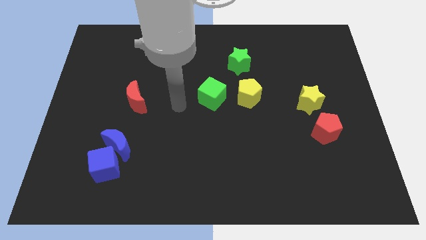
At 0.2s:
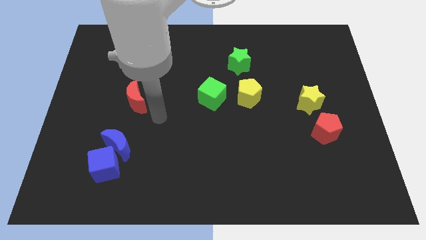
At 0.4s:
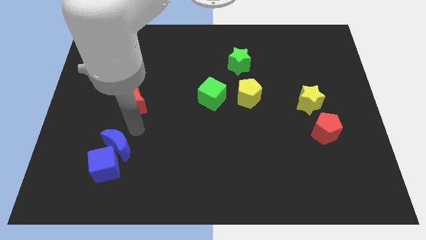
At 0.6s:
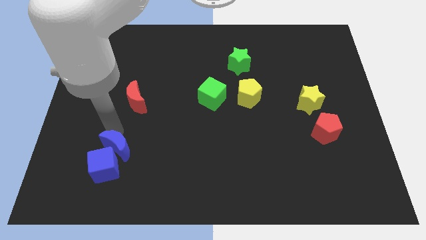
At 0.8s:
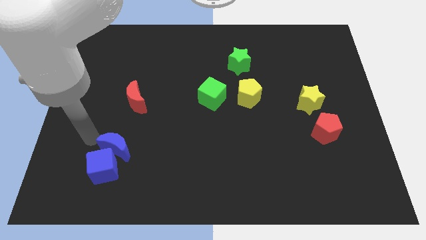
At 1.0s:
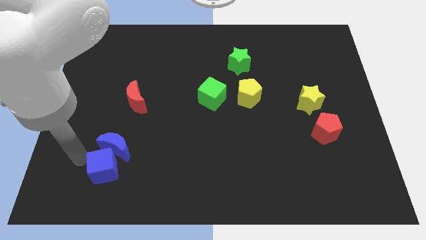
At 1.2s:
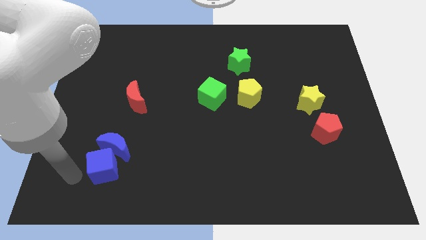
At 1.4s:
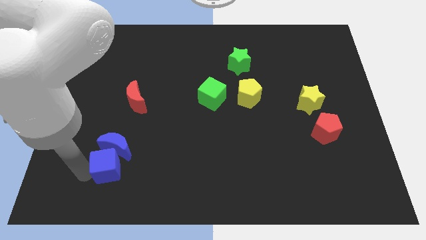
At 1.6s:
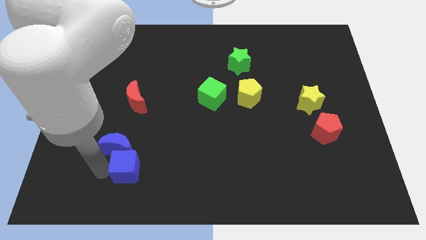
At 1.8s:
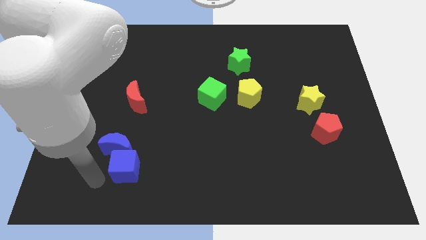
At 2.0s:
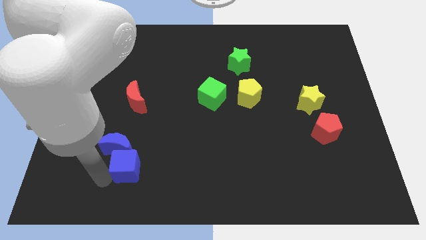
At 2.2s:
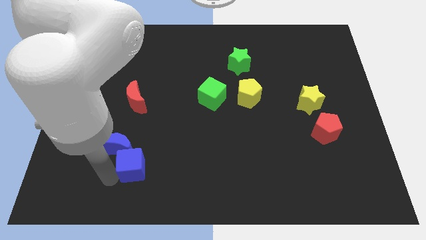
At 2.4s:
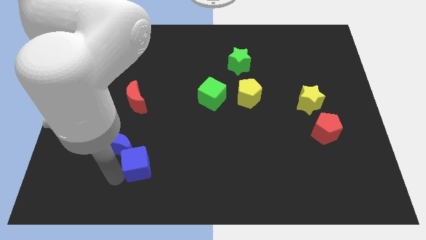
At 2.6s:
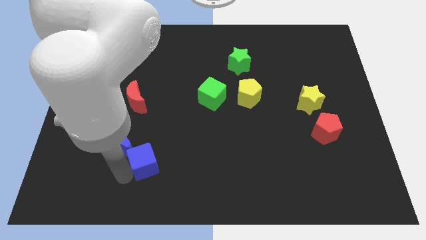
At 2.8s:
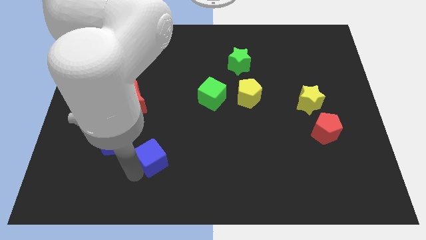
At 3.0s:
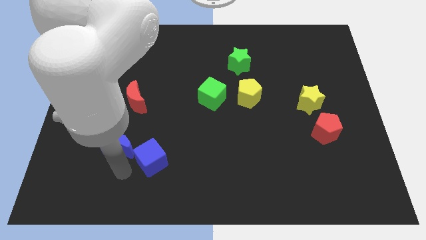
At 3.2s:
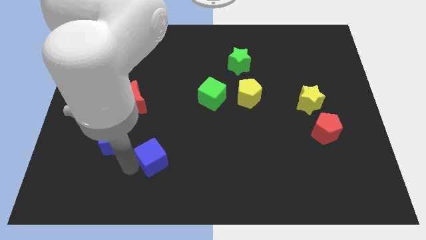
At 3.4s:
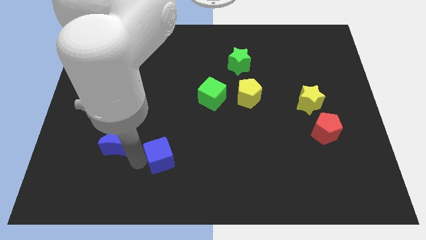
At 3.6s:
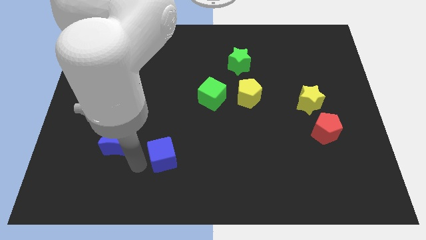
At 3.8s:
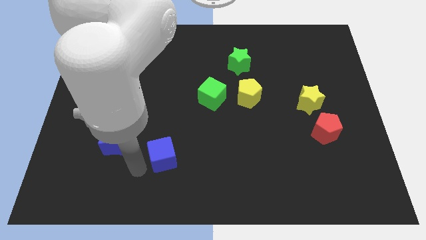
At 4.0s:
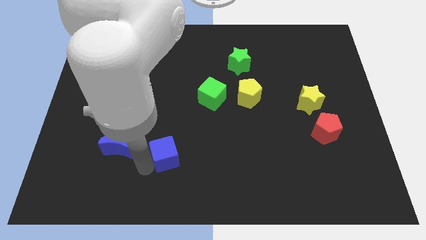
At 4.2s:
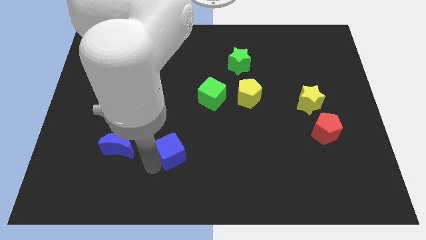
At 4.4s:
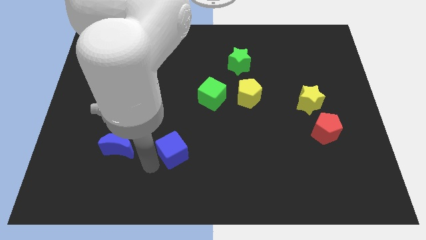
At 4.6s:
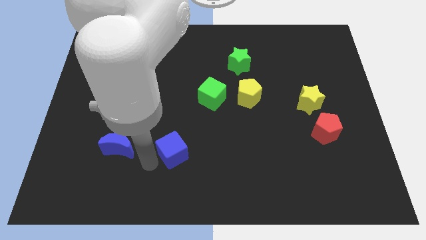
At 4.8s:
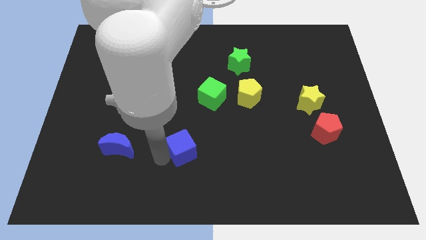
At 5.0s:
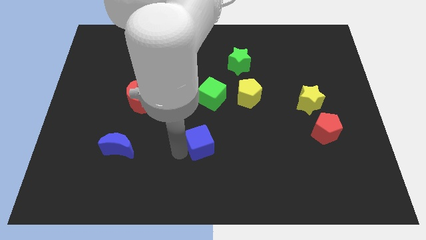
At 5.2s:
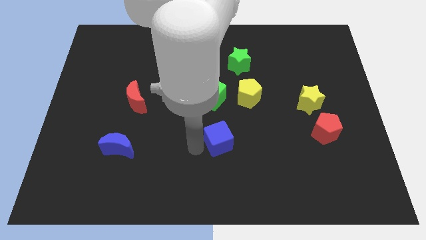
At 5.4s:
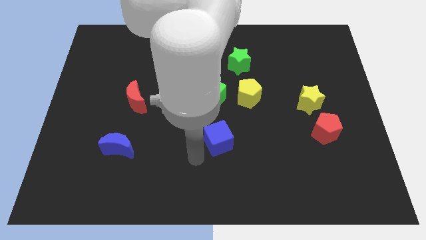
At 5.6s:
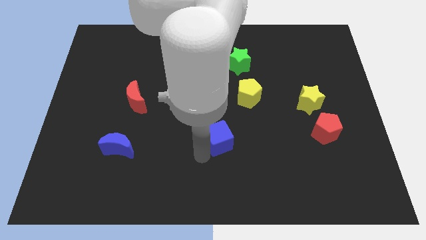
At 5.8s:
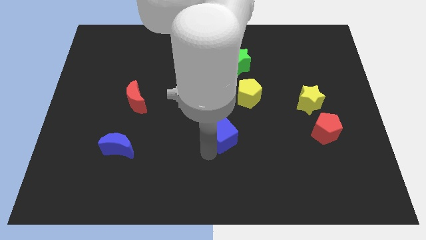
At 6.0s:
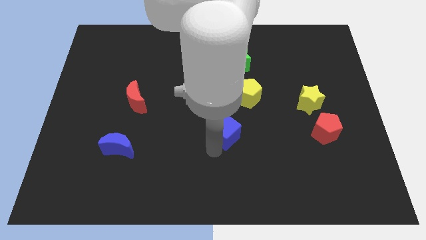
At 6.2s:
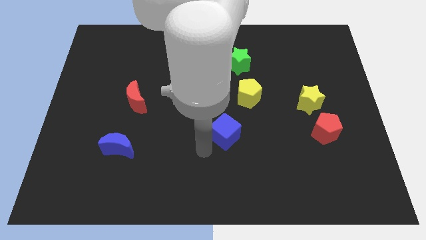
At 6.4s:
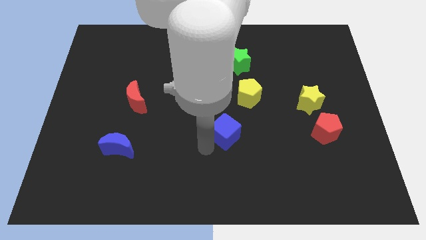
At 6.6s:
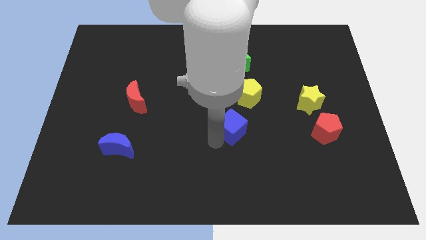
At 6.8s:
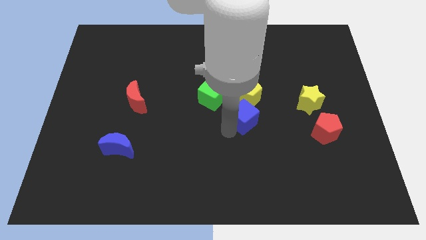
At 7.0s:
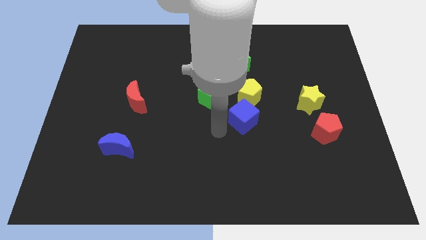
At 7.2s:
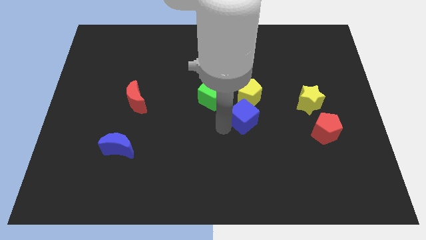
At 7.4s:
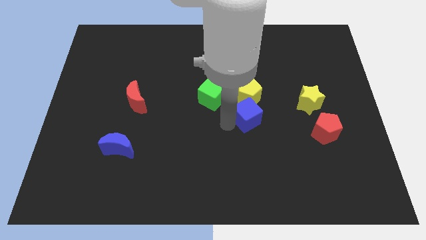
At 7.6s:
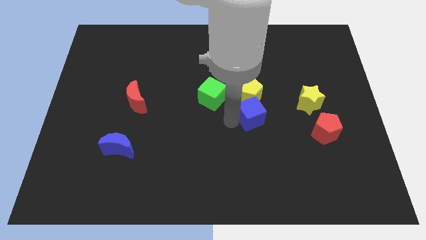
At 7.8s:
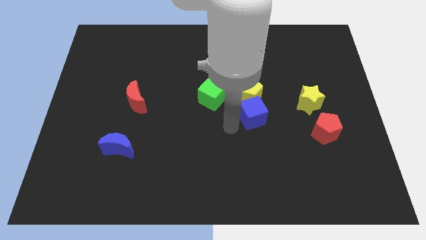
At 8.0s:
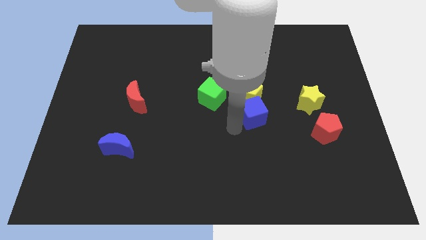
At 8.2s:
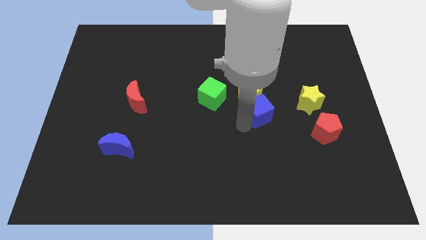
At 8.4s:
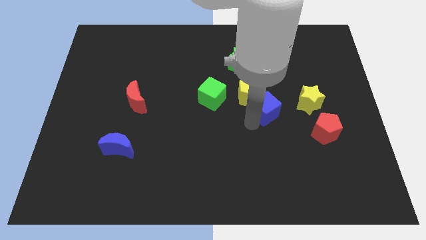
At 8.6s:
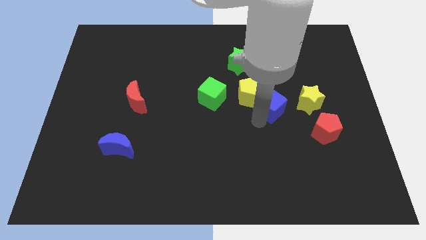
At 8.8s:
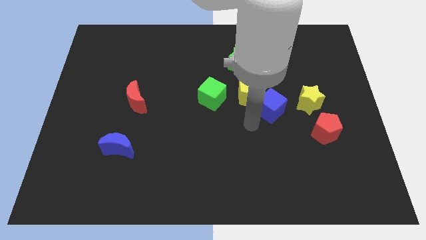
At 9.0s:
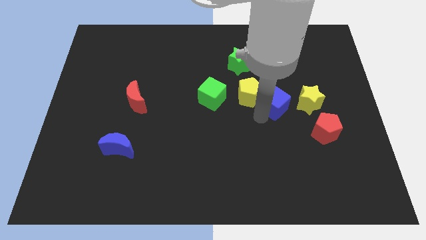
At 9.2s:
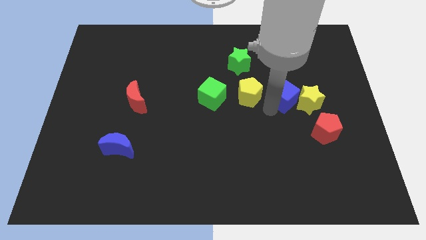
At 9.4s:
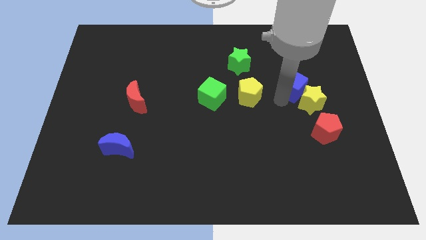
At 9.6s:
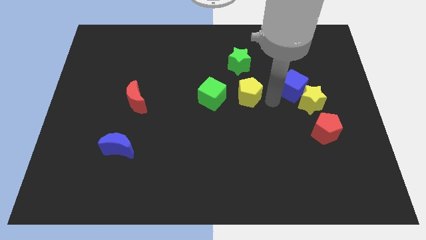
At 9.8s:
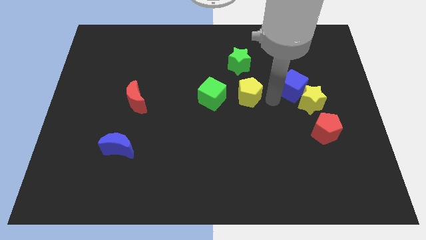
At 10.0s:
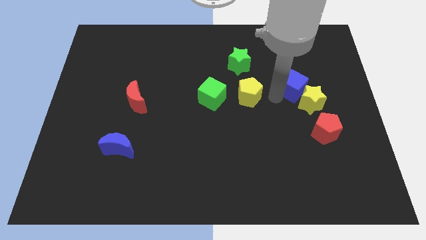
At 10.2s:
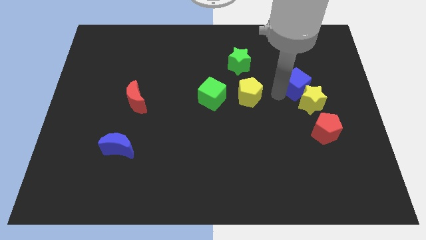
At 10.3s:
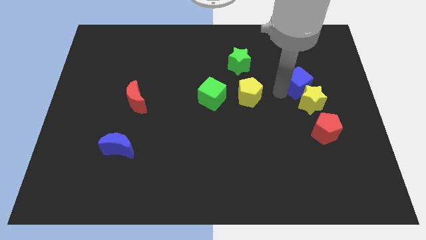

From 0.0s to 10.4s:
move the blue cube above the red pentagon

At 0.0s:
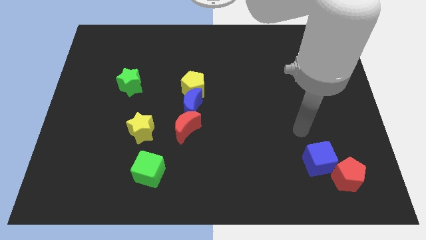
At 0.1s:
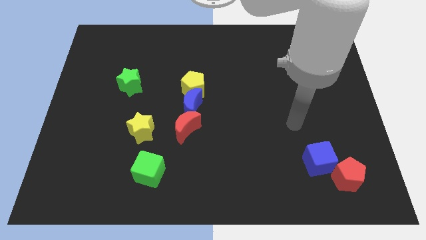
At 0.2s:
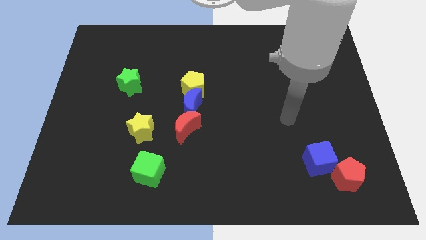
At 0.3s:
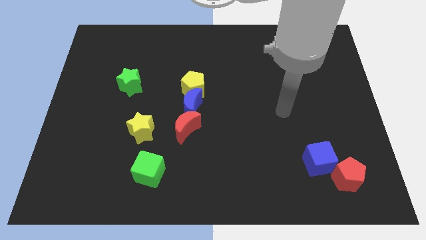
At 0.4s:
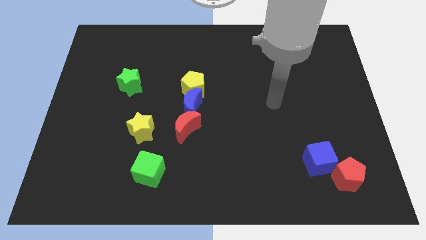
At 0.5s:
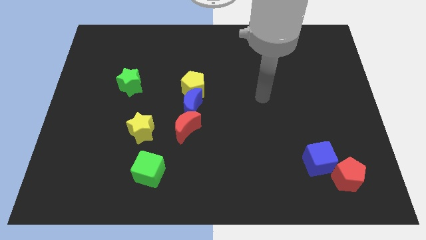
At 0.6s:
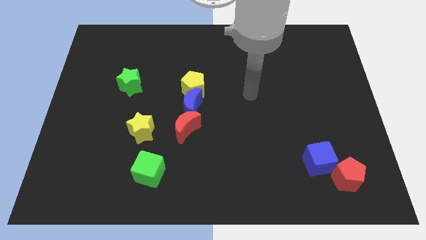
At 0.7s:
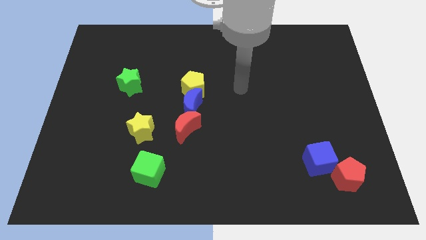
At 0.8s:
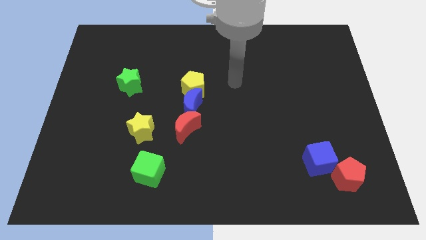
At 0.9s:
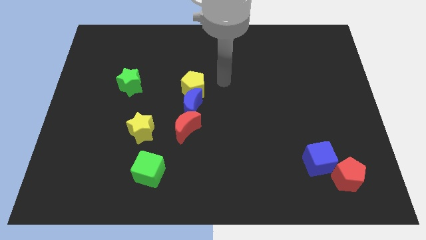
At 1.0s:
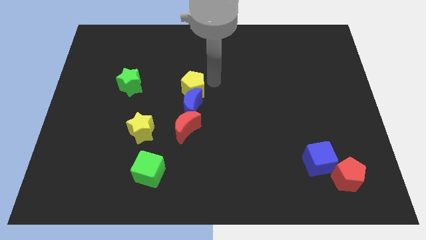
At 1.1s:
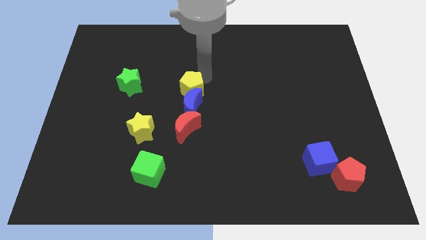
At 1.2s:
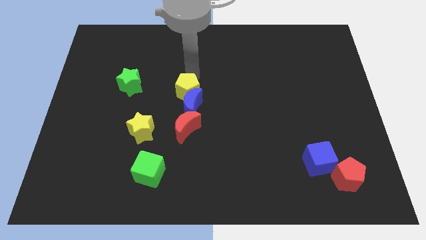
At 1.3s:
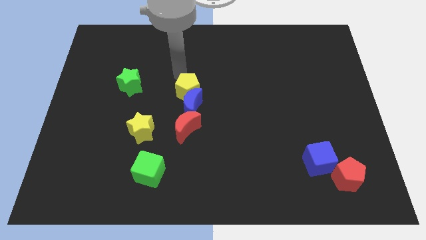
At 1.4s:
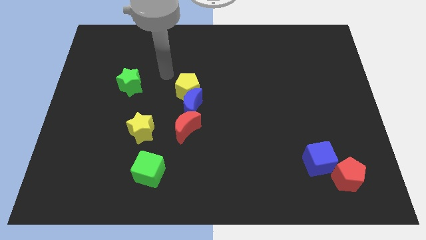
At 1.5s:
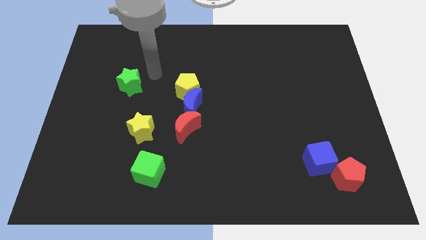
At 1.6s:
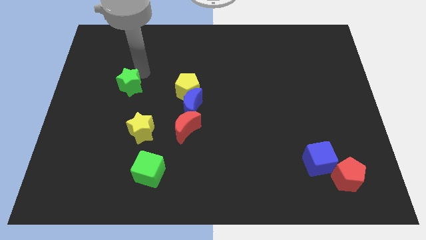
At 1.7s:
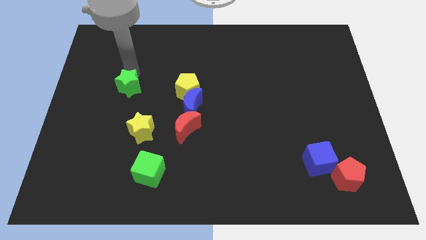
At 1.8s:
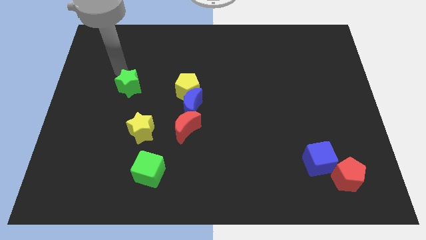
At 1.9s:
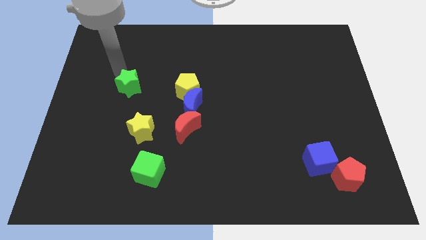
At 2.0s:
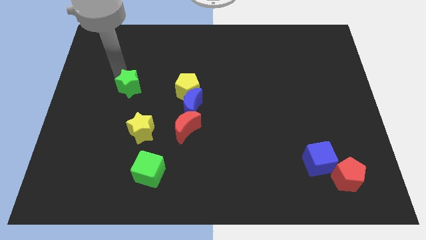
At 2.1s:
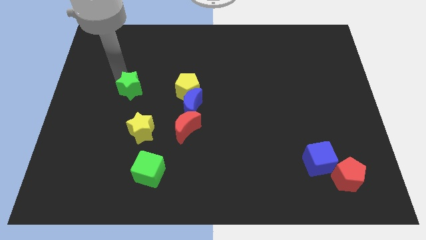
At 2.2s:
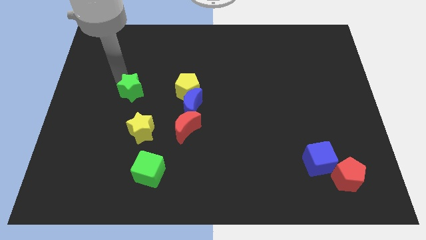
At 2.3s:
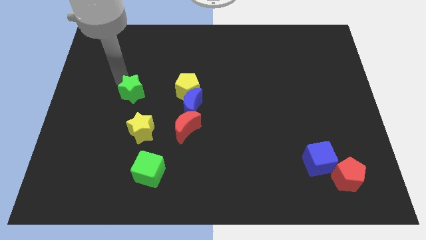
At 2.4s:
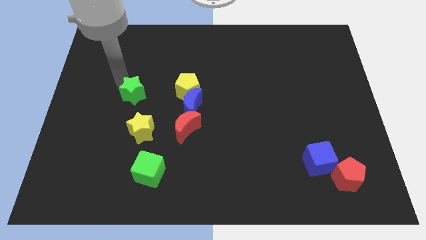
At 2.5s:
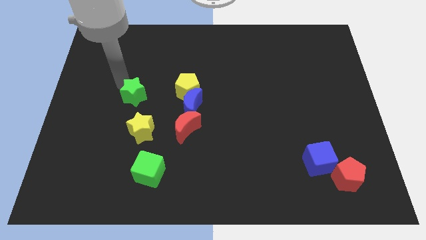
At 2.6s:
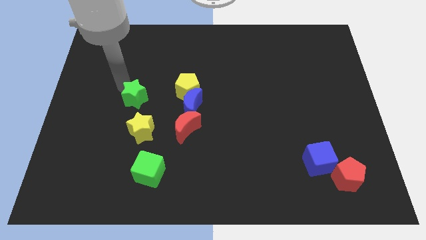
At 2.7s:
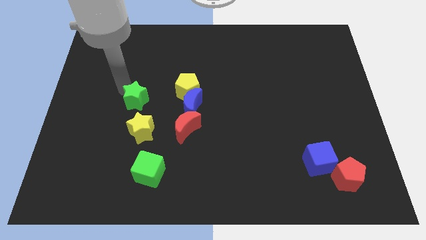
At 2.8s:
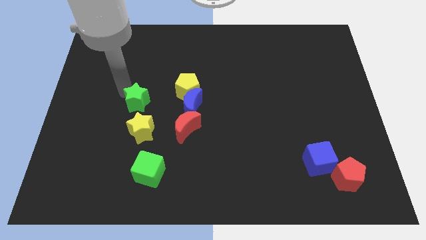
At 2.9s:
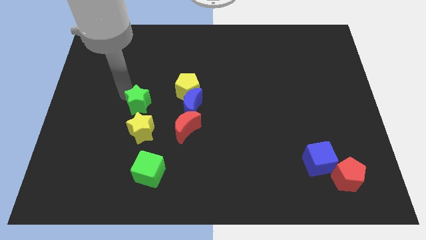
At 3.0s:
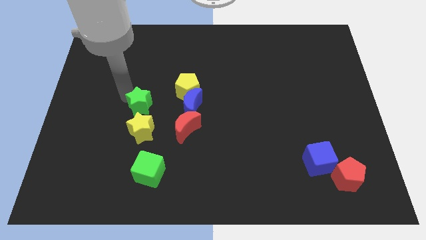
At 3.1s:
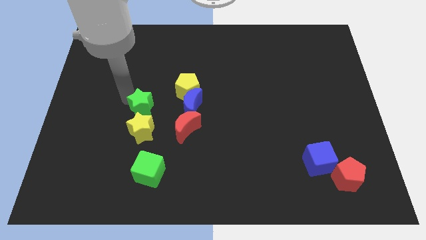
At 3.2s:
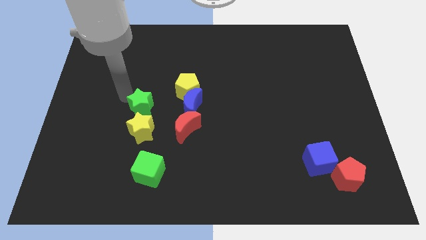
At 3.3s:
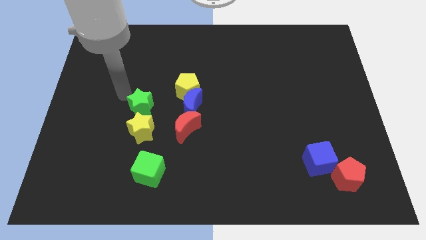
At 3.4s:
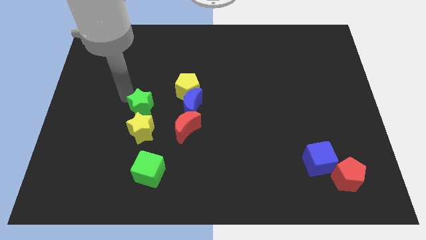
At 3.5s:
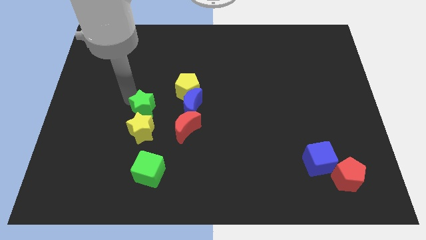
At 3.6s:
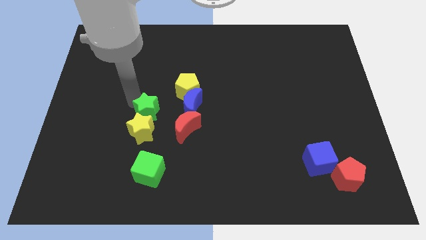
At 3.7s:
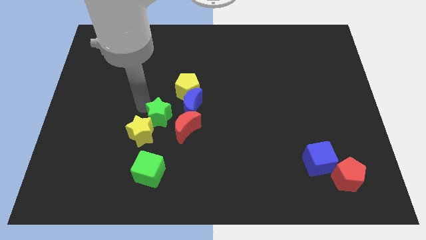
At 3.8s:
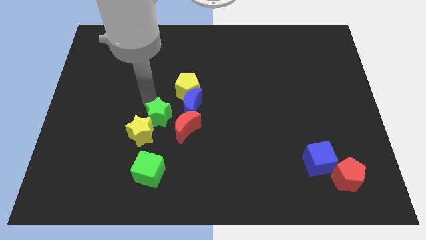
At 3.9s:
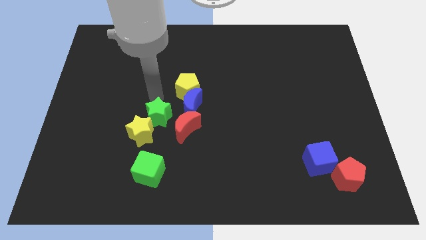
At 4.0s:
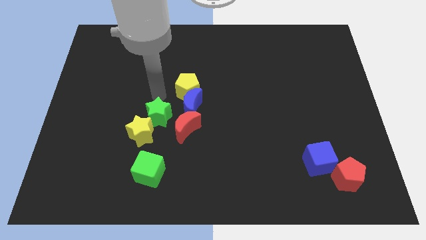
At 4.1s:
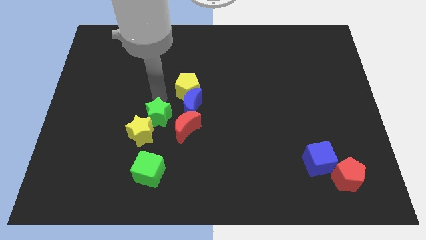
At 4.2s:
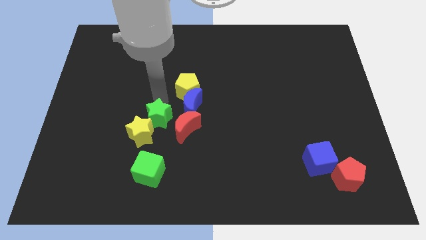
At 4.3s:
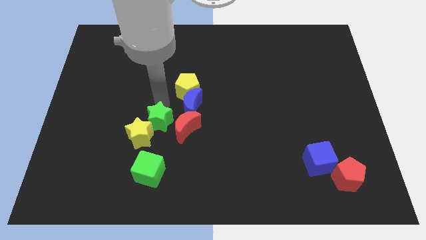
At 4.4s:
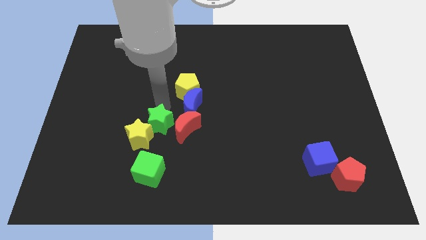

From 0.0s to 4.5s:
push the green star diagonally down and to the left of the red moon
